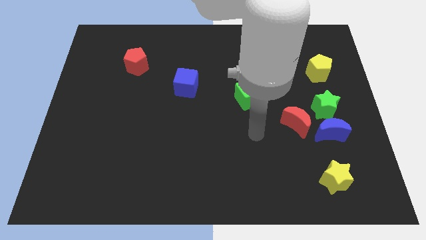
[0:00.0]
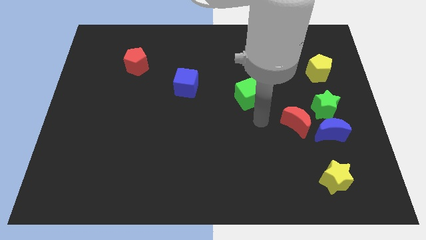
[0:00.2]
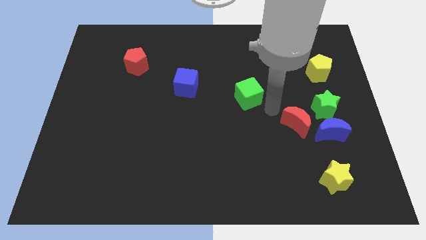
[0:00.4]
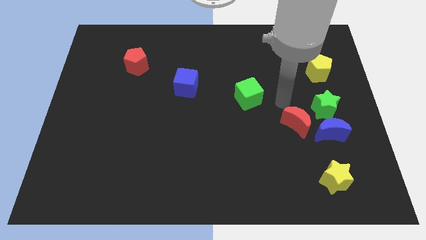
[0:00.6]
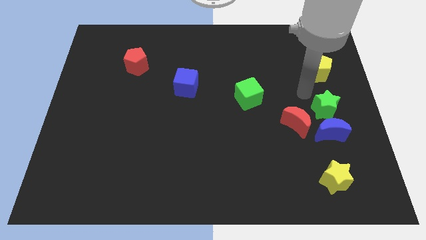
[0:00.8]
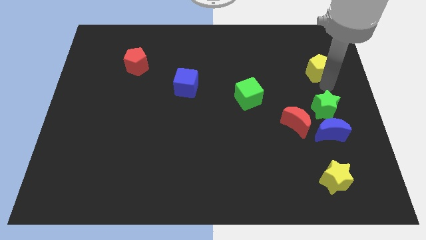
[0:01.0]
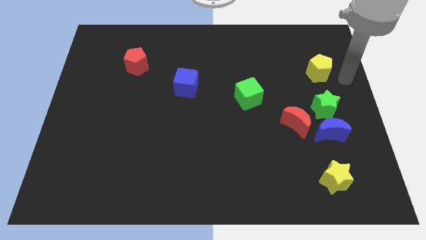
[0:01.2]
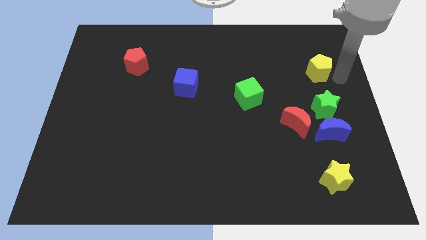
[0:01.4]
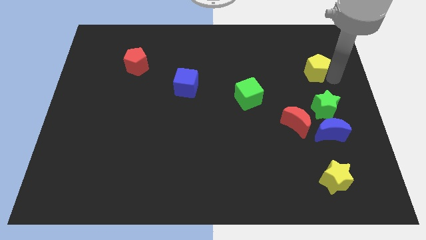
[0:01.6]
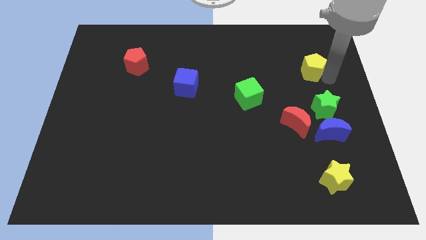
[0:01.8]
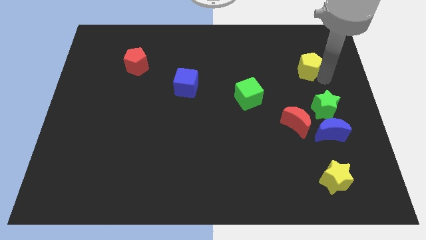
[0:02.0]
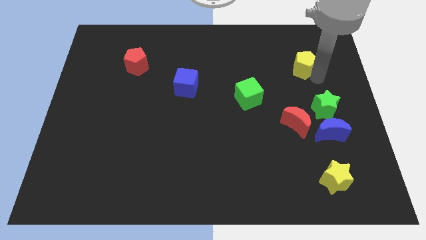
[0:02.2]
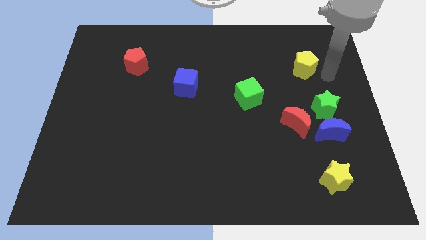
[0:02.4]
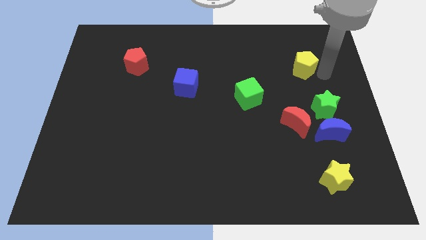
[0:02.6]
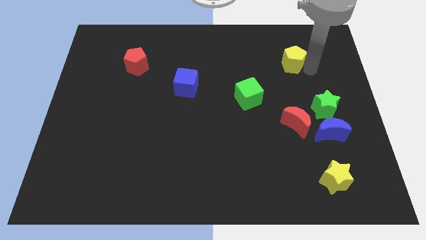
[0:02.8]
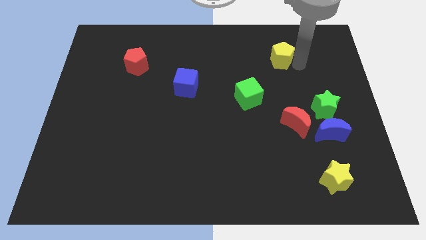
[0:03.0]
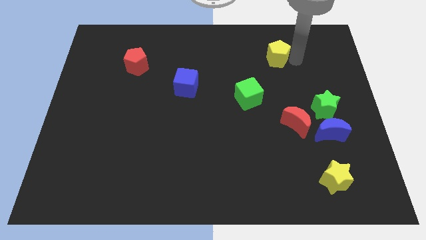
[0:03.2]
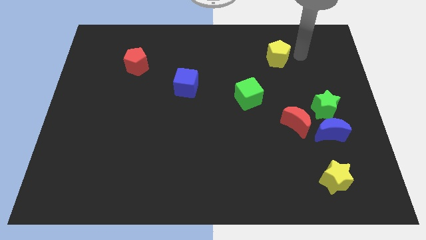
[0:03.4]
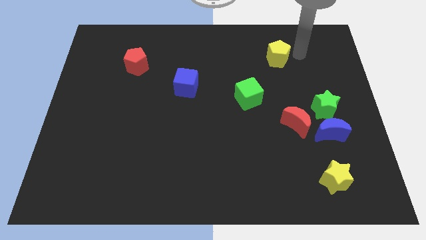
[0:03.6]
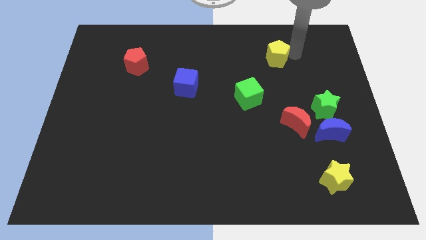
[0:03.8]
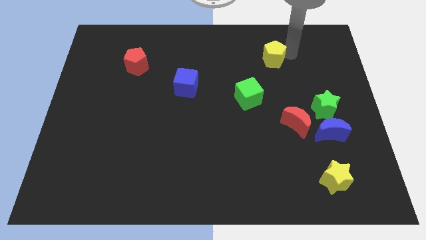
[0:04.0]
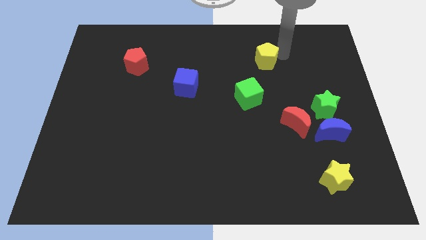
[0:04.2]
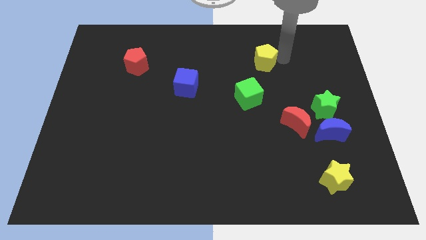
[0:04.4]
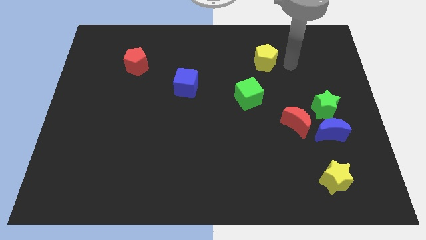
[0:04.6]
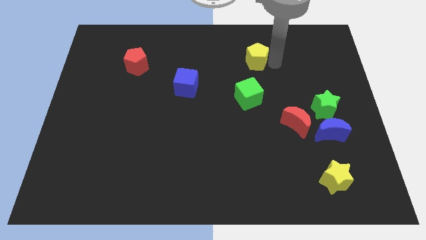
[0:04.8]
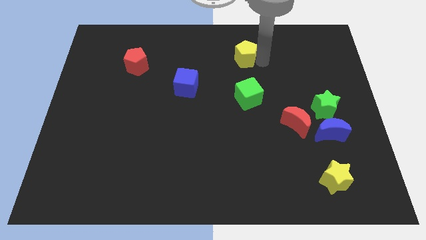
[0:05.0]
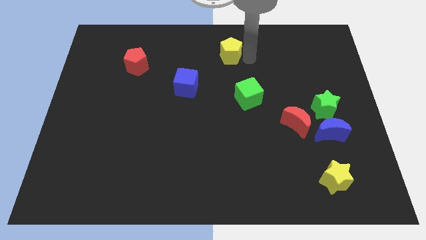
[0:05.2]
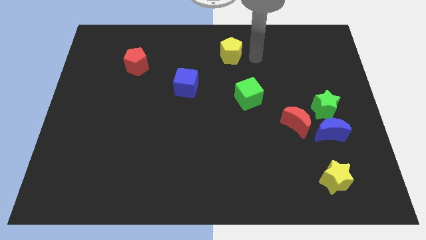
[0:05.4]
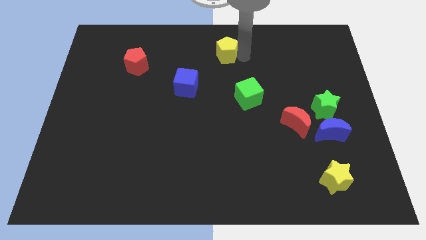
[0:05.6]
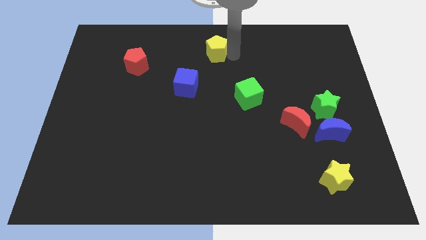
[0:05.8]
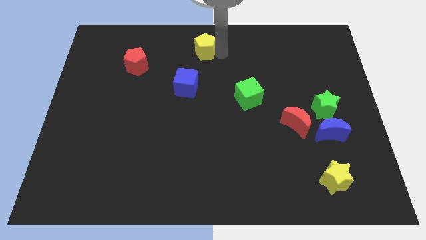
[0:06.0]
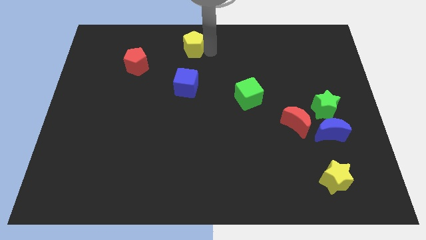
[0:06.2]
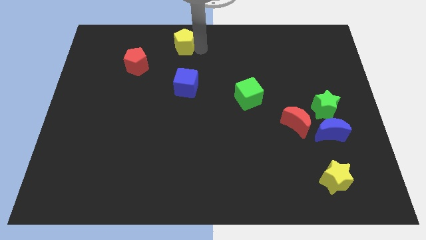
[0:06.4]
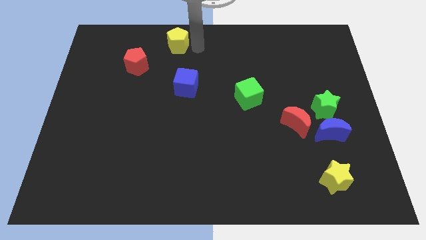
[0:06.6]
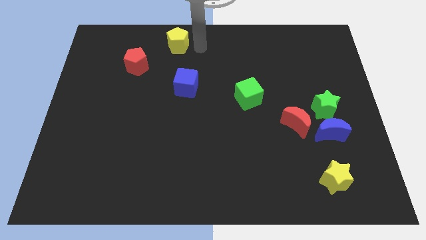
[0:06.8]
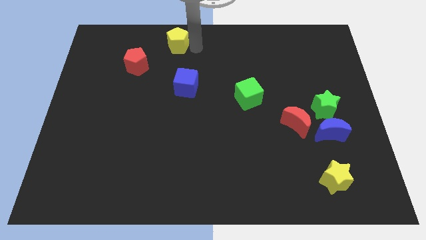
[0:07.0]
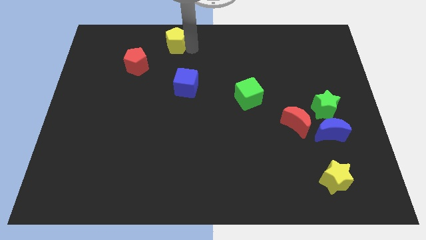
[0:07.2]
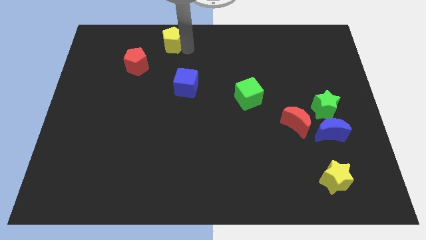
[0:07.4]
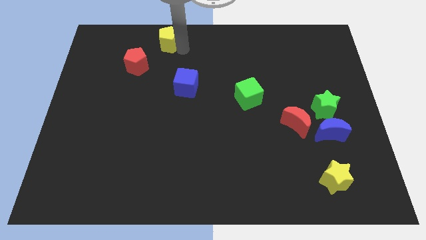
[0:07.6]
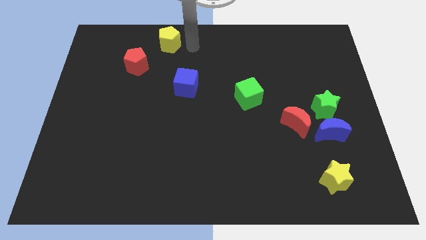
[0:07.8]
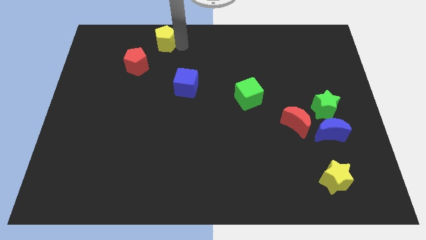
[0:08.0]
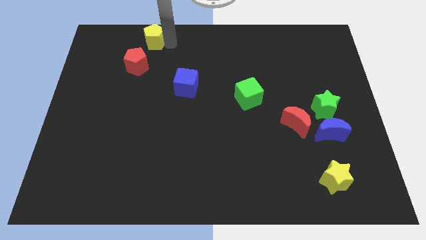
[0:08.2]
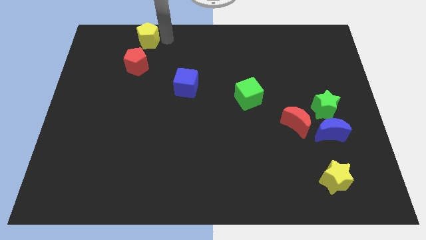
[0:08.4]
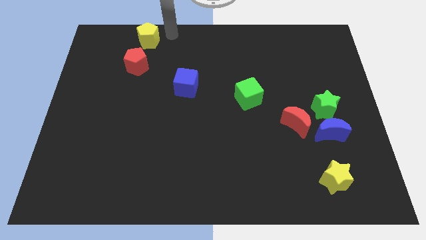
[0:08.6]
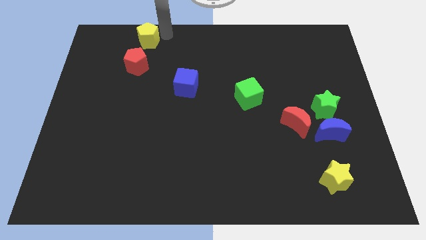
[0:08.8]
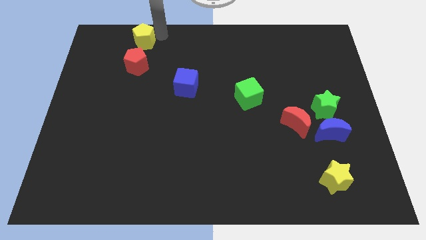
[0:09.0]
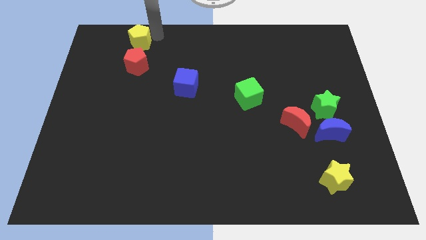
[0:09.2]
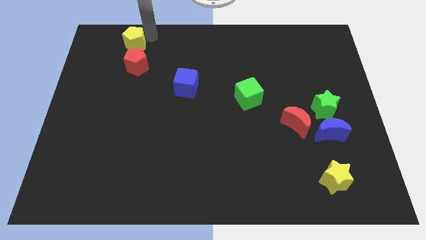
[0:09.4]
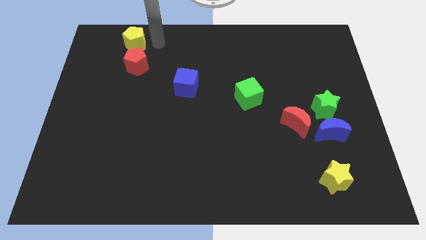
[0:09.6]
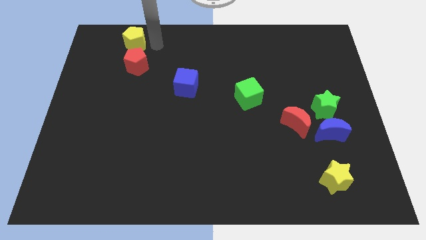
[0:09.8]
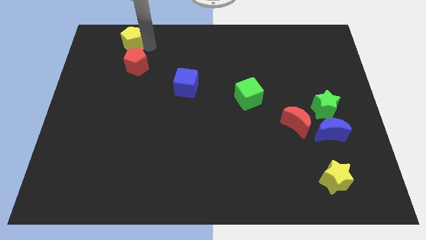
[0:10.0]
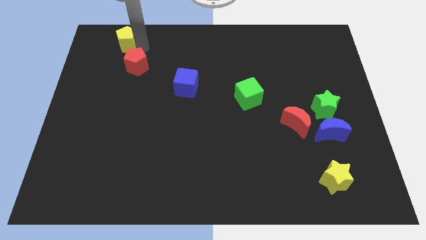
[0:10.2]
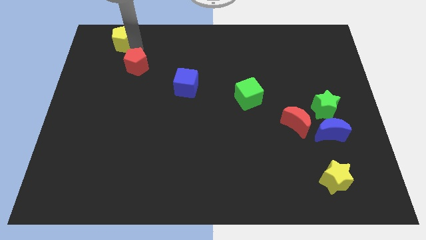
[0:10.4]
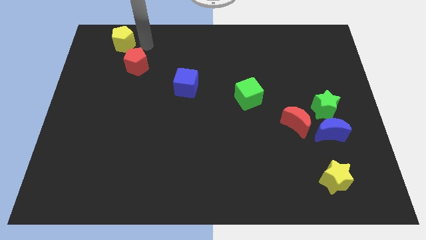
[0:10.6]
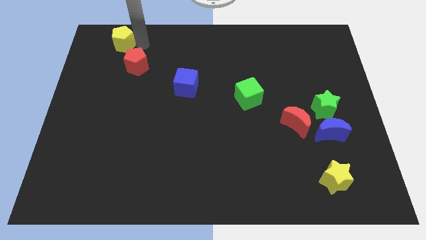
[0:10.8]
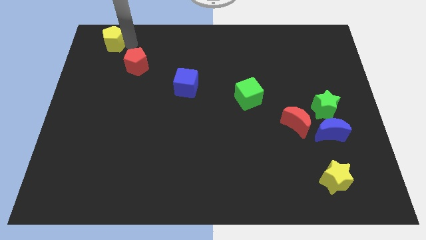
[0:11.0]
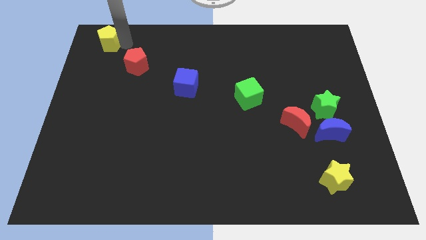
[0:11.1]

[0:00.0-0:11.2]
move the yellow pentagon to the top left
